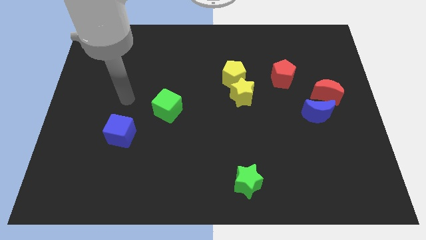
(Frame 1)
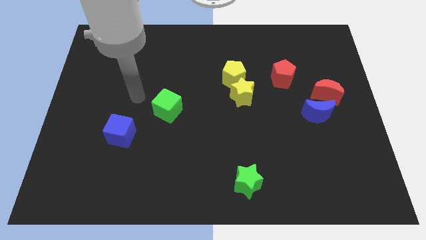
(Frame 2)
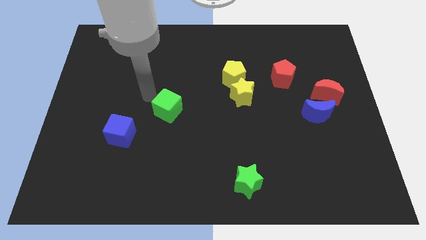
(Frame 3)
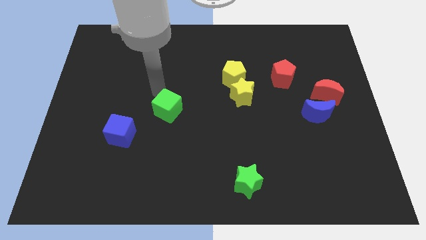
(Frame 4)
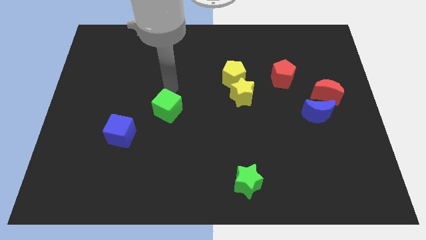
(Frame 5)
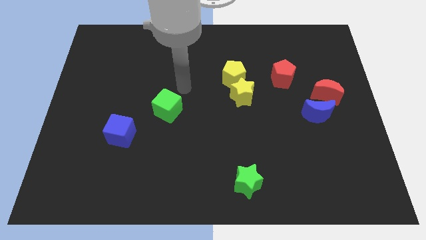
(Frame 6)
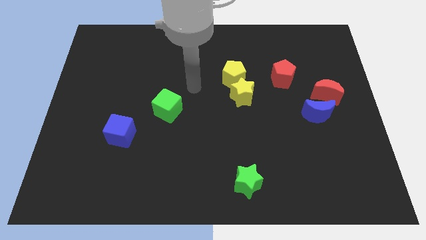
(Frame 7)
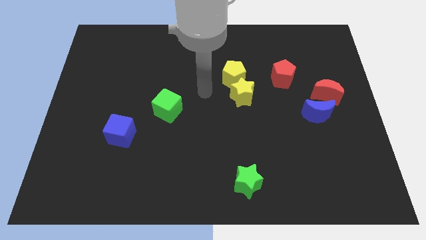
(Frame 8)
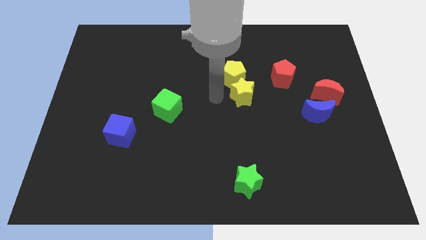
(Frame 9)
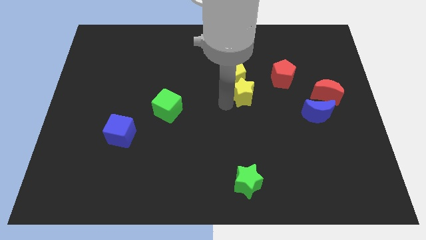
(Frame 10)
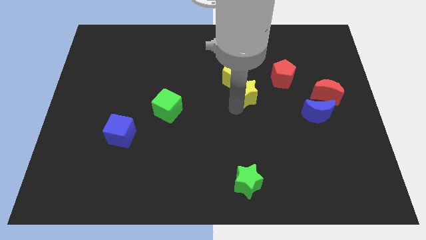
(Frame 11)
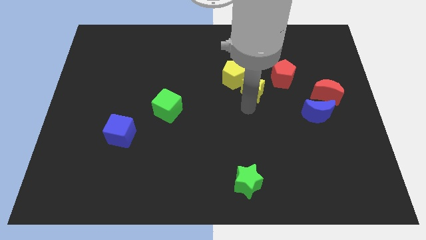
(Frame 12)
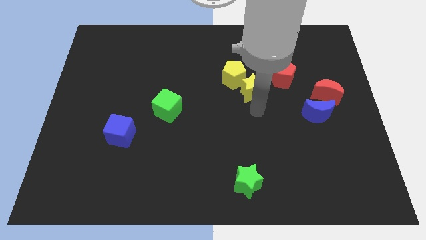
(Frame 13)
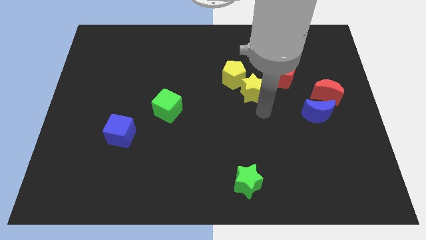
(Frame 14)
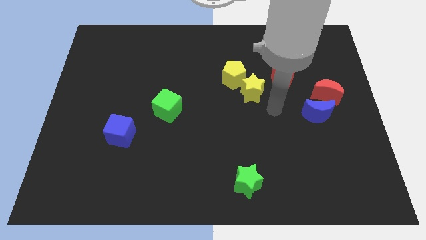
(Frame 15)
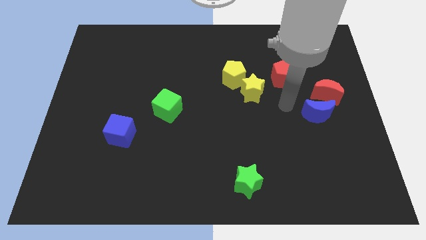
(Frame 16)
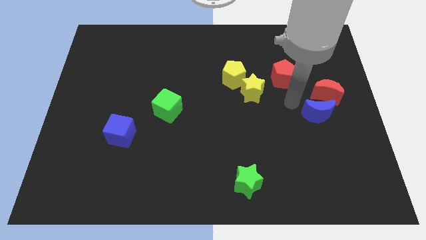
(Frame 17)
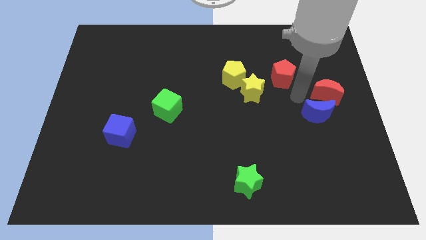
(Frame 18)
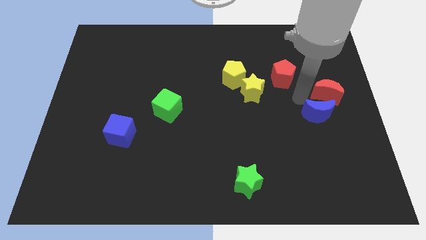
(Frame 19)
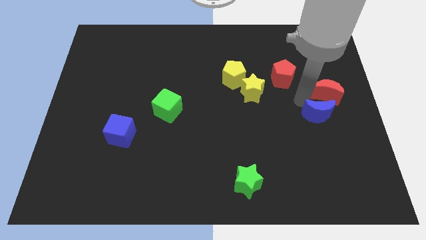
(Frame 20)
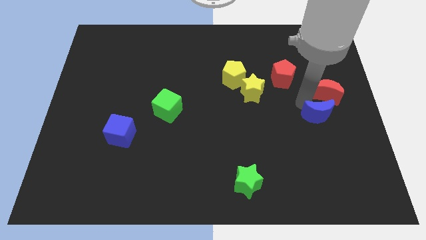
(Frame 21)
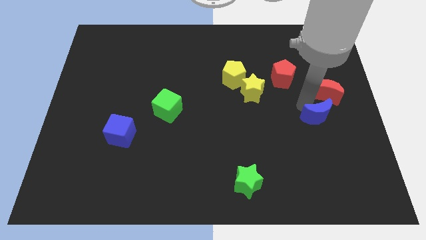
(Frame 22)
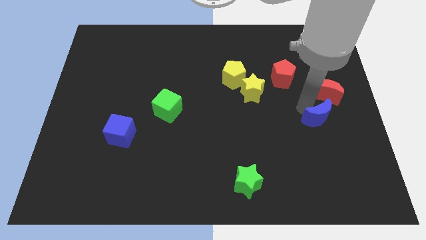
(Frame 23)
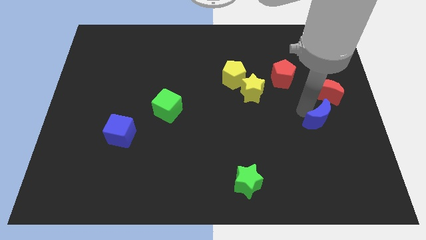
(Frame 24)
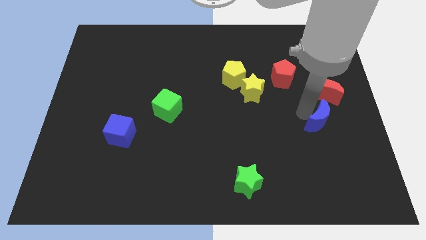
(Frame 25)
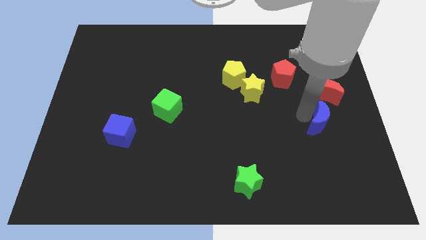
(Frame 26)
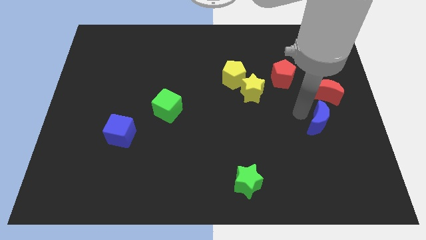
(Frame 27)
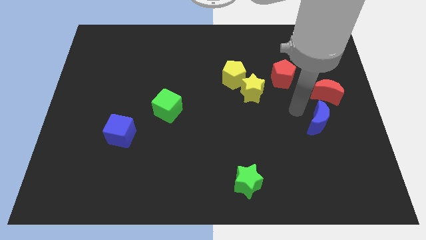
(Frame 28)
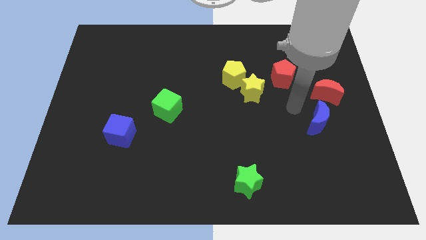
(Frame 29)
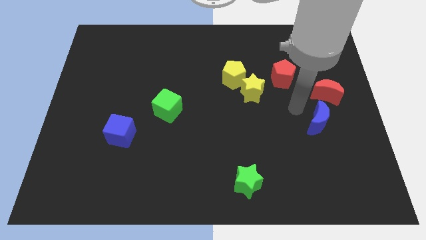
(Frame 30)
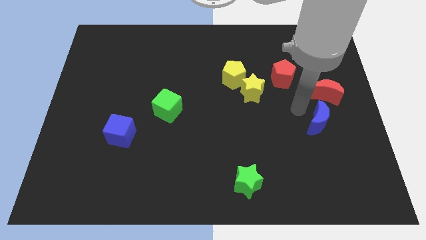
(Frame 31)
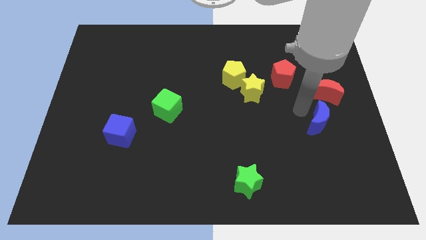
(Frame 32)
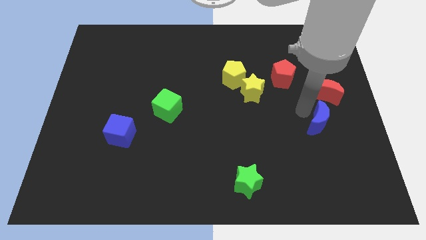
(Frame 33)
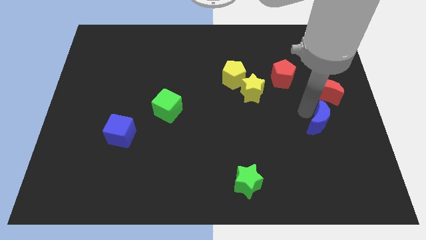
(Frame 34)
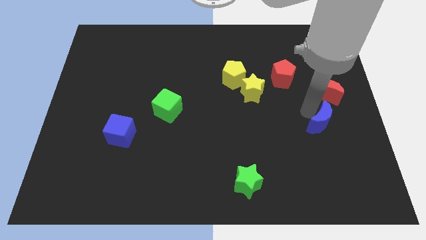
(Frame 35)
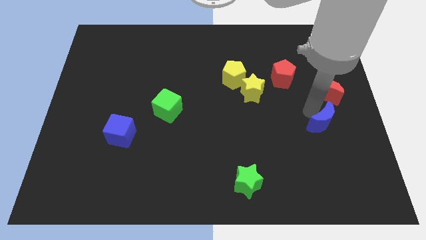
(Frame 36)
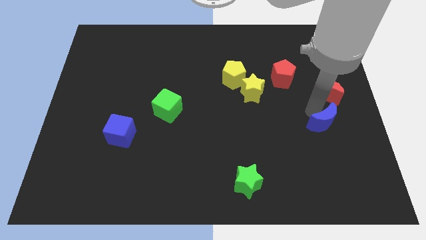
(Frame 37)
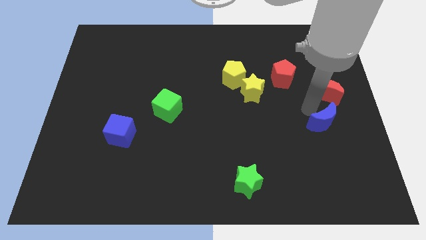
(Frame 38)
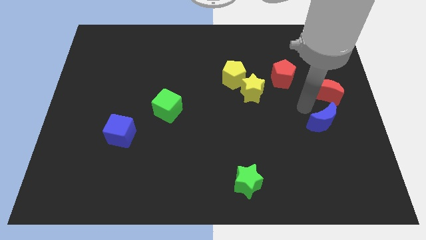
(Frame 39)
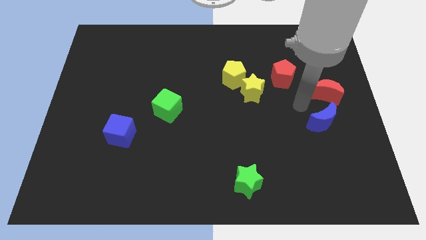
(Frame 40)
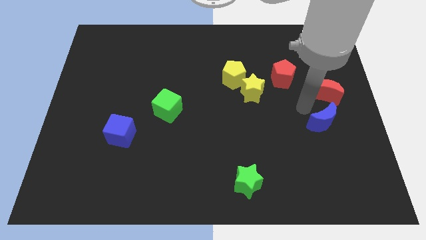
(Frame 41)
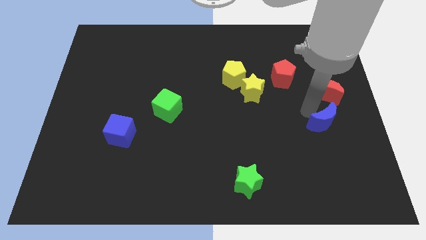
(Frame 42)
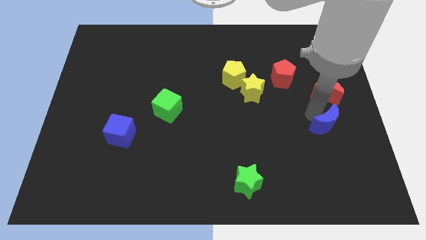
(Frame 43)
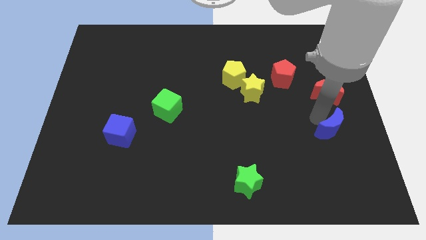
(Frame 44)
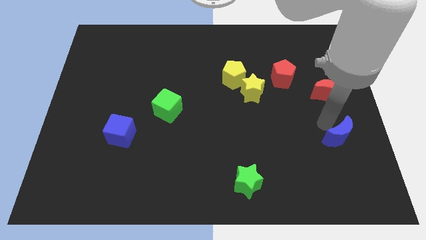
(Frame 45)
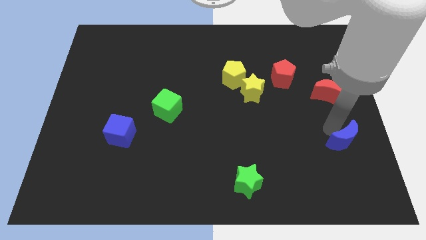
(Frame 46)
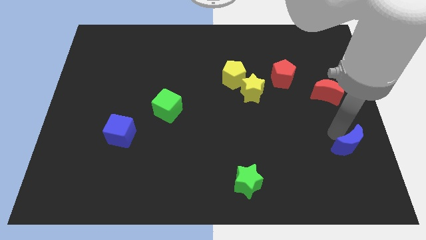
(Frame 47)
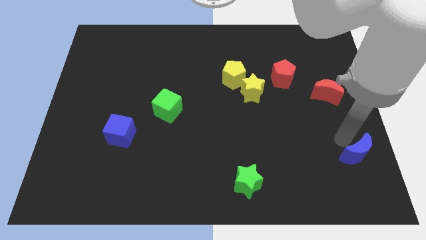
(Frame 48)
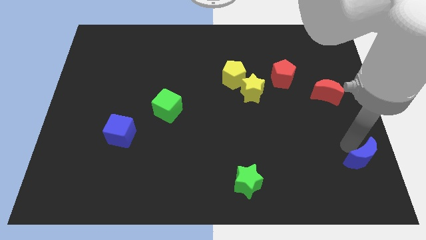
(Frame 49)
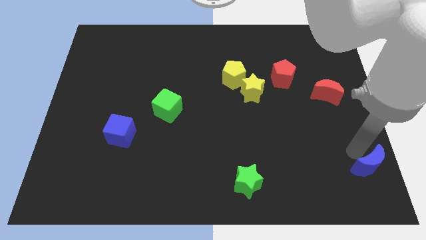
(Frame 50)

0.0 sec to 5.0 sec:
push the blue moon to the lower right corner

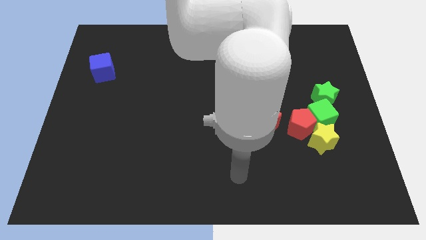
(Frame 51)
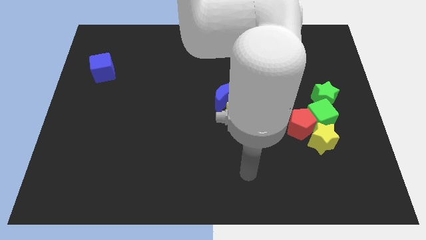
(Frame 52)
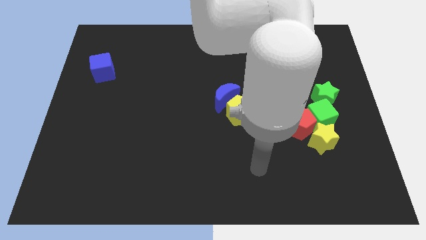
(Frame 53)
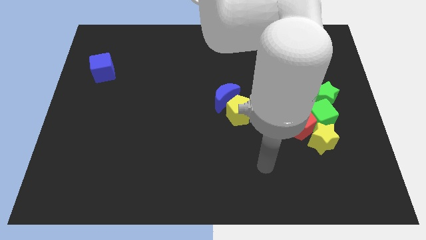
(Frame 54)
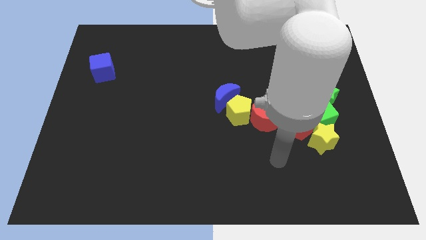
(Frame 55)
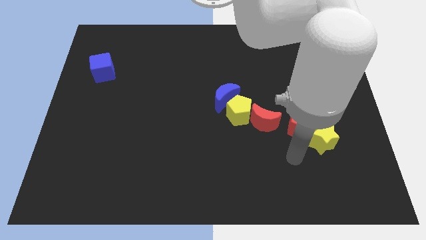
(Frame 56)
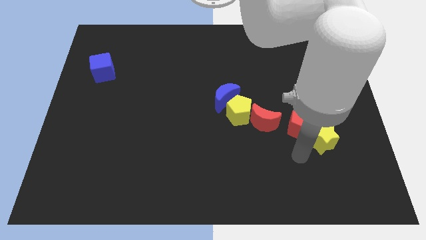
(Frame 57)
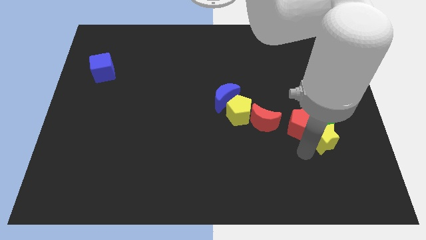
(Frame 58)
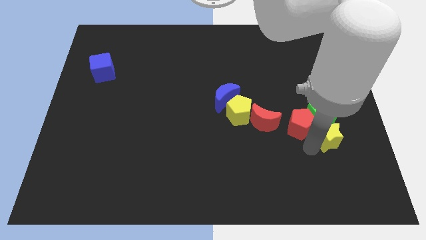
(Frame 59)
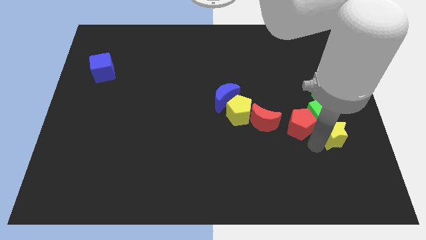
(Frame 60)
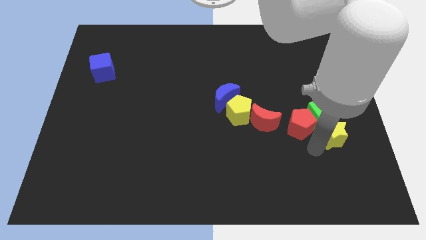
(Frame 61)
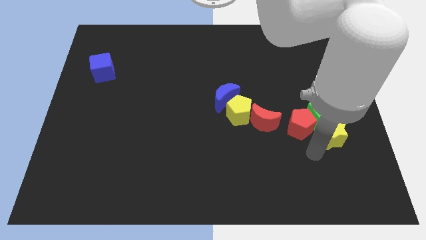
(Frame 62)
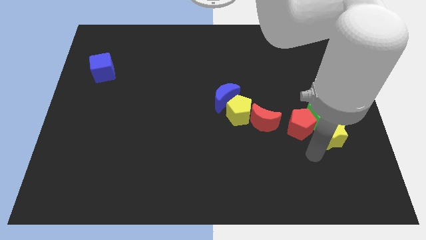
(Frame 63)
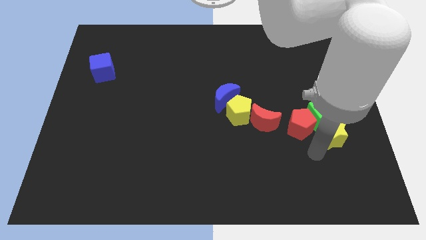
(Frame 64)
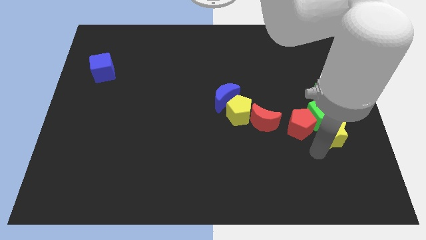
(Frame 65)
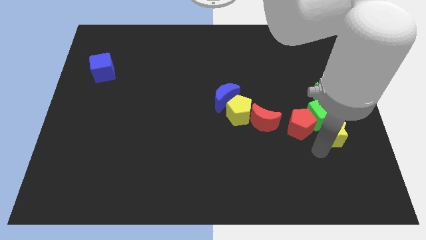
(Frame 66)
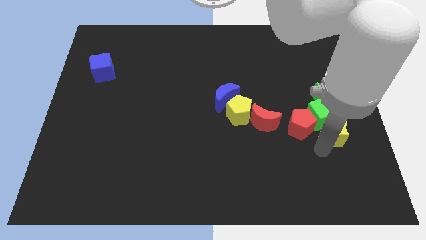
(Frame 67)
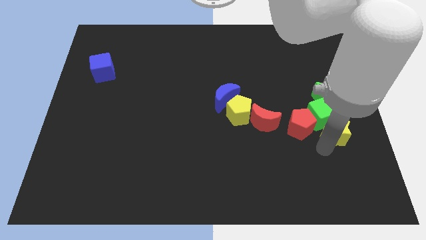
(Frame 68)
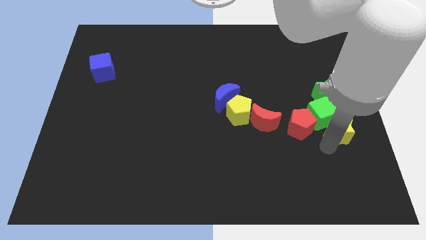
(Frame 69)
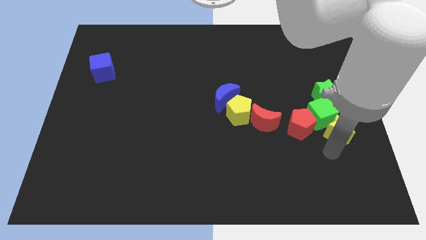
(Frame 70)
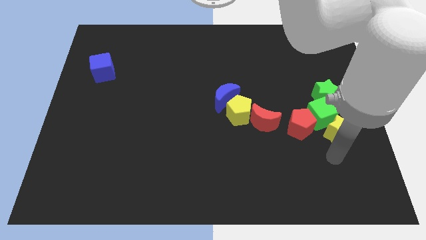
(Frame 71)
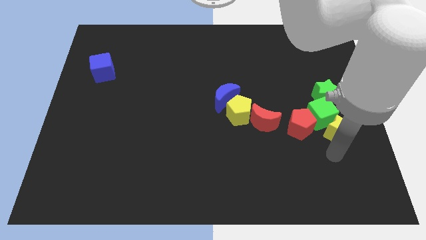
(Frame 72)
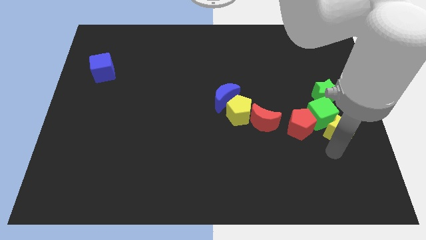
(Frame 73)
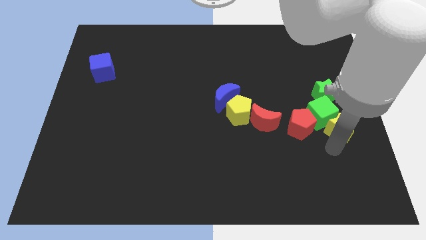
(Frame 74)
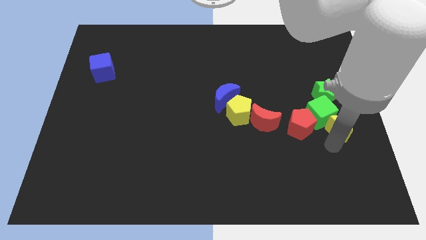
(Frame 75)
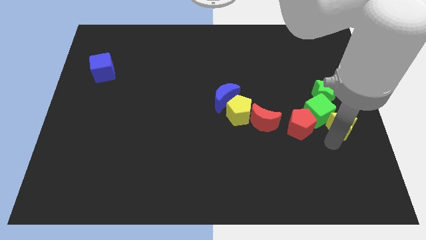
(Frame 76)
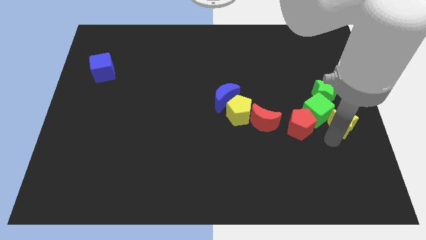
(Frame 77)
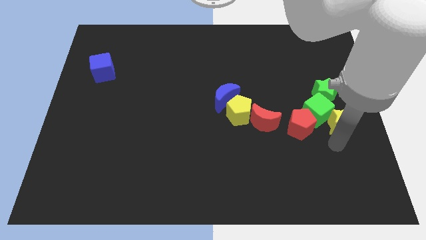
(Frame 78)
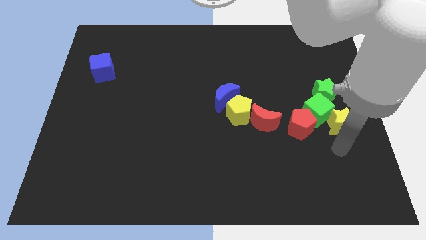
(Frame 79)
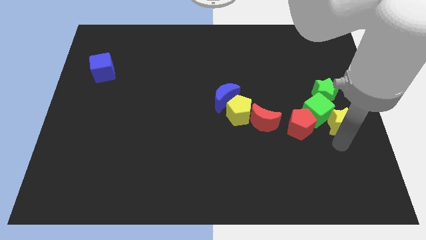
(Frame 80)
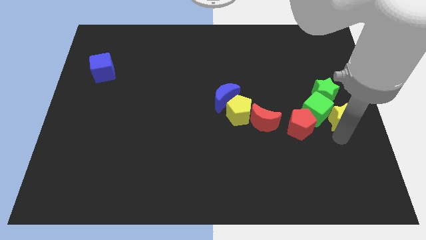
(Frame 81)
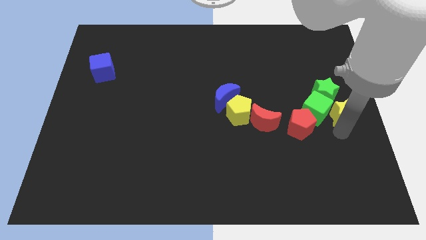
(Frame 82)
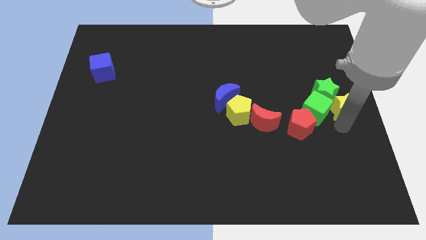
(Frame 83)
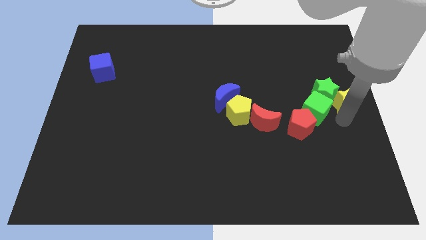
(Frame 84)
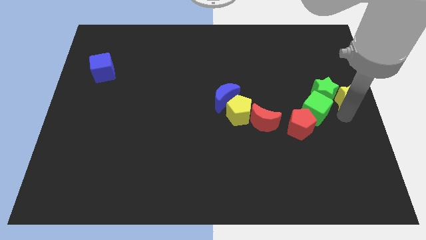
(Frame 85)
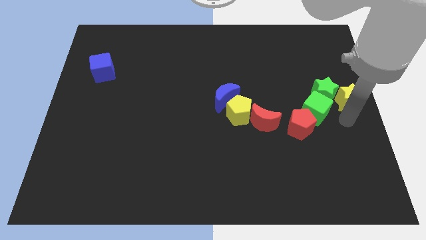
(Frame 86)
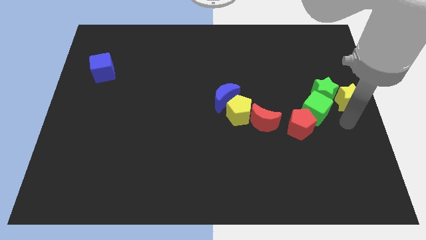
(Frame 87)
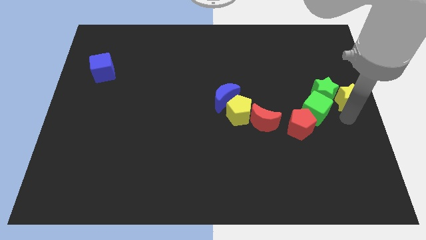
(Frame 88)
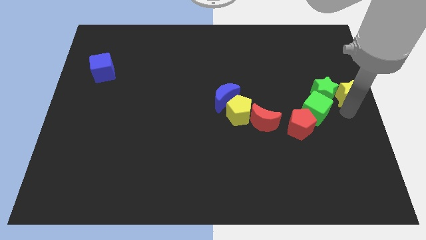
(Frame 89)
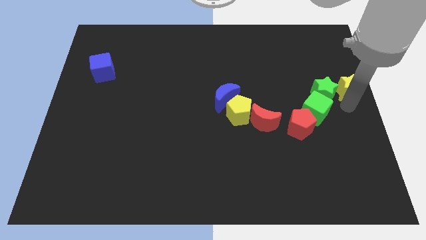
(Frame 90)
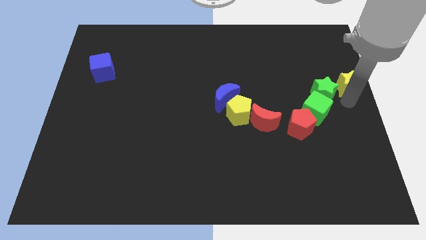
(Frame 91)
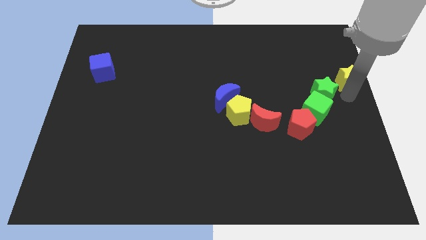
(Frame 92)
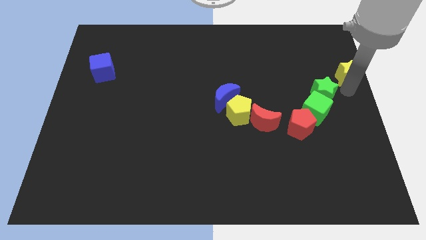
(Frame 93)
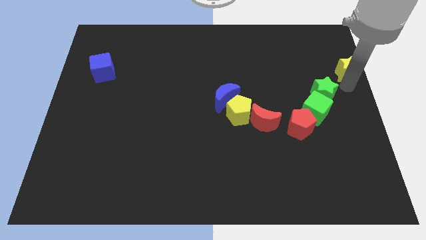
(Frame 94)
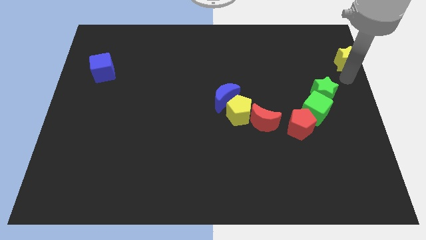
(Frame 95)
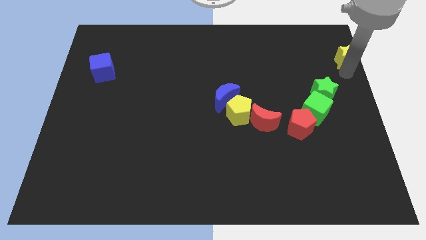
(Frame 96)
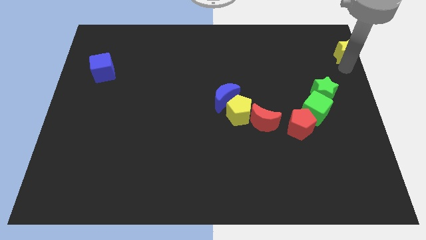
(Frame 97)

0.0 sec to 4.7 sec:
push the yellow star to the top right corner
